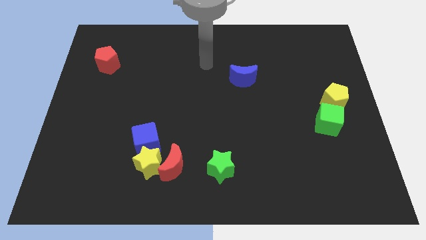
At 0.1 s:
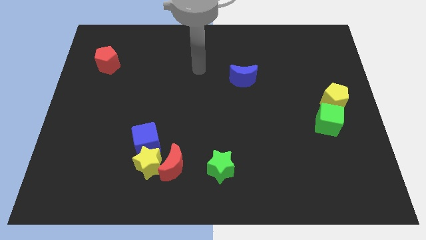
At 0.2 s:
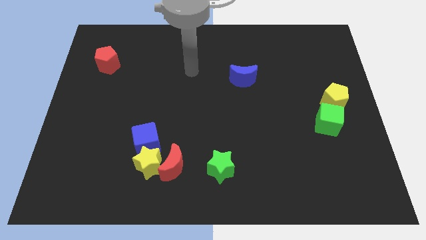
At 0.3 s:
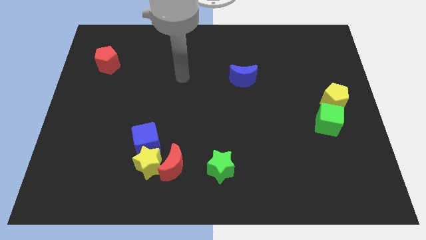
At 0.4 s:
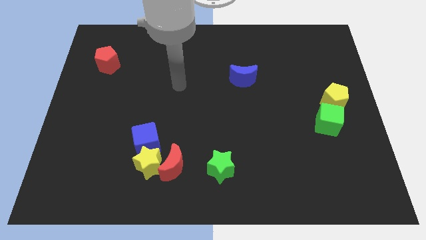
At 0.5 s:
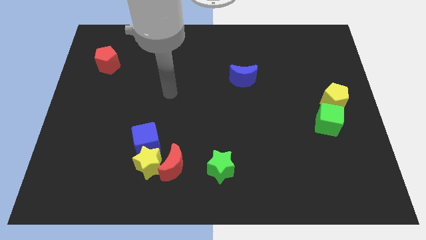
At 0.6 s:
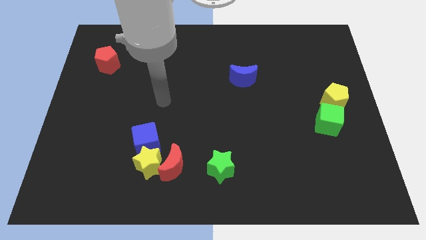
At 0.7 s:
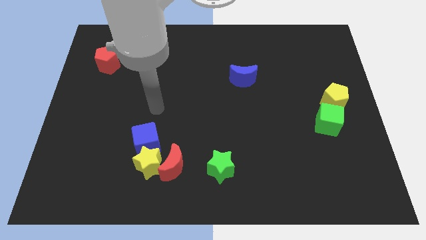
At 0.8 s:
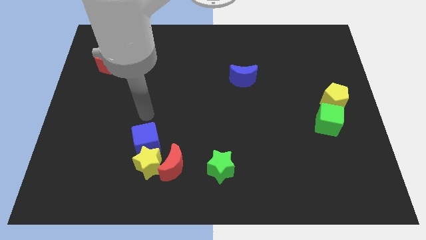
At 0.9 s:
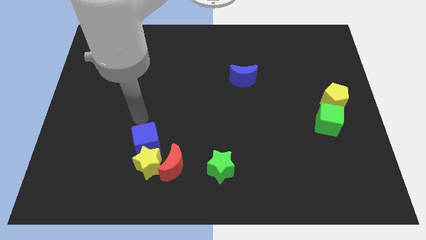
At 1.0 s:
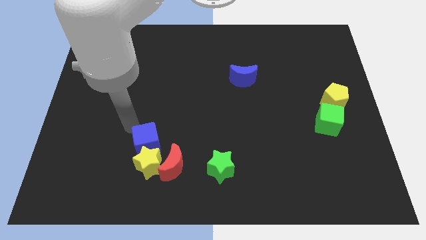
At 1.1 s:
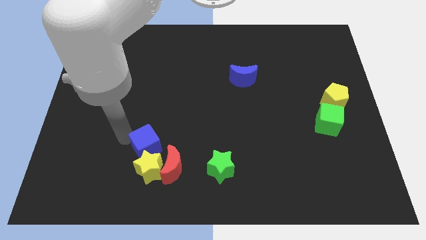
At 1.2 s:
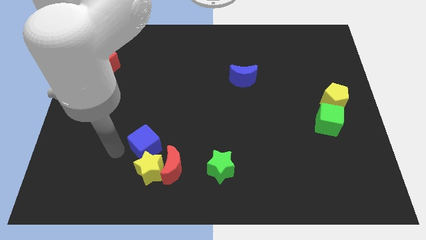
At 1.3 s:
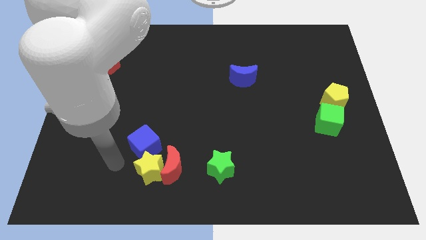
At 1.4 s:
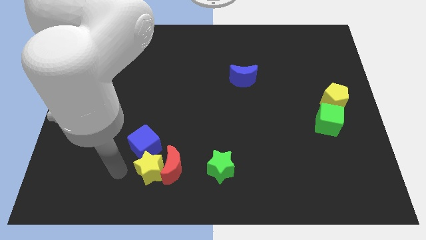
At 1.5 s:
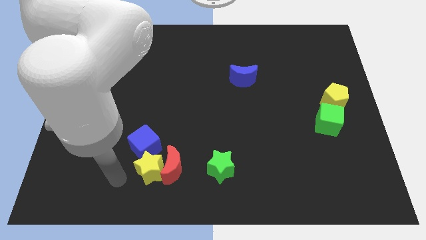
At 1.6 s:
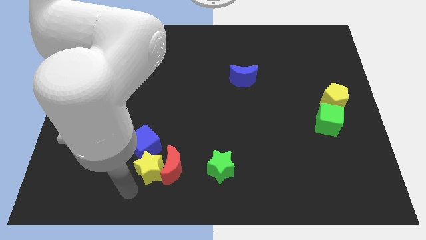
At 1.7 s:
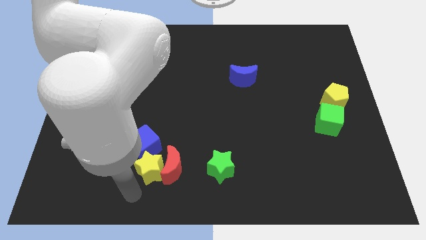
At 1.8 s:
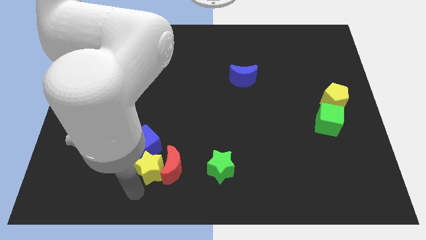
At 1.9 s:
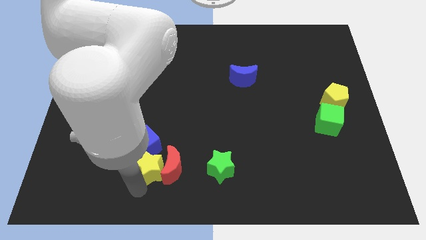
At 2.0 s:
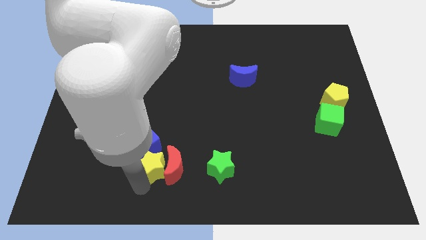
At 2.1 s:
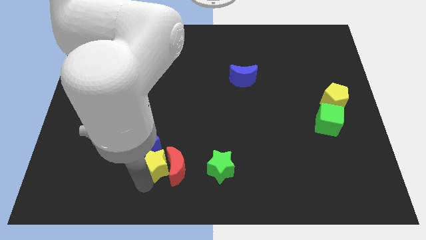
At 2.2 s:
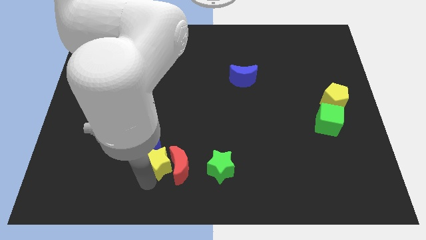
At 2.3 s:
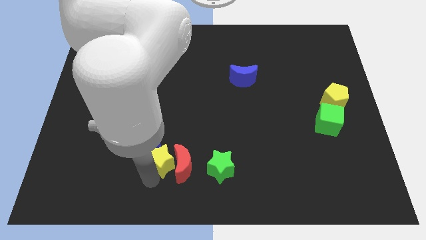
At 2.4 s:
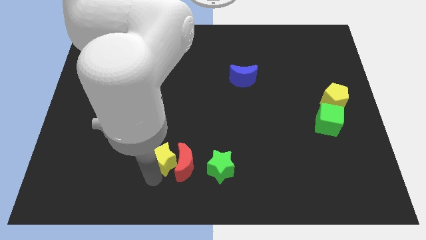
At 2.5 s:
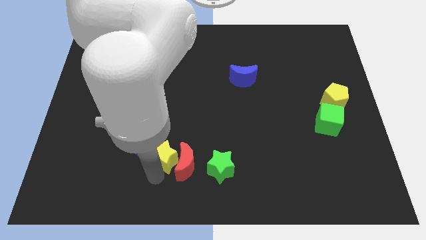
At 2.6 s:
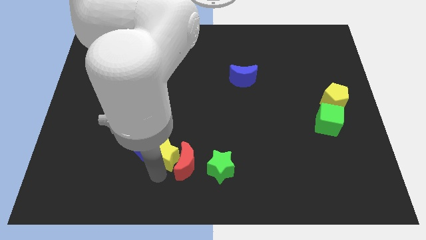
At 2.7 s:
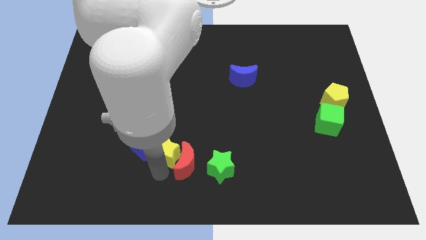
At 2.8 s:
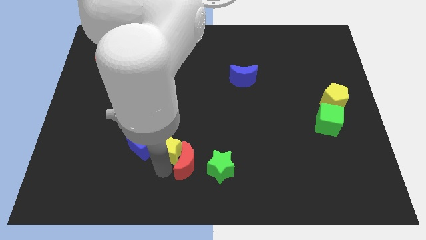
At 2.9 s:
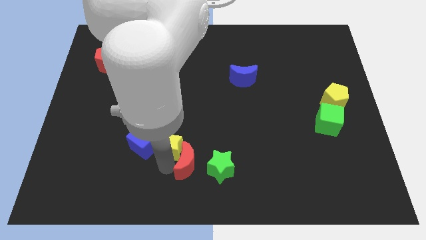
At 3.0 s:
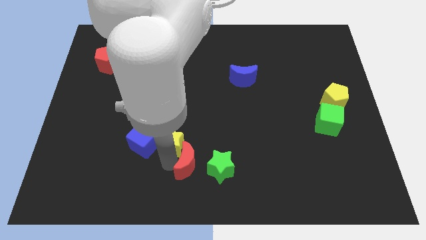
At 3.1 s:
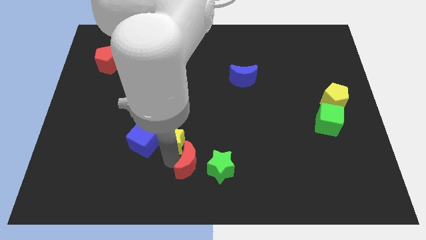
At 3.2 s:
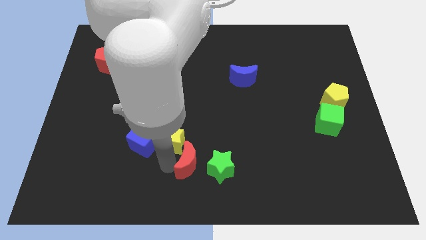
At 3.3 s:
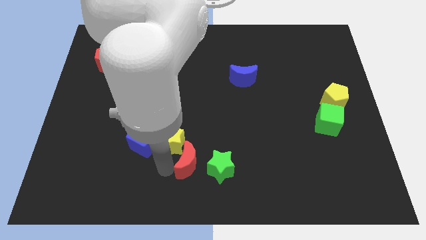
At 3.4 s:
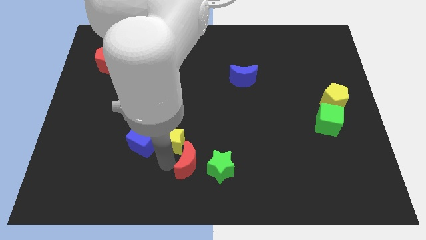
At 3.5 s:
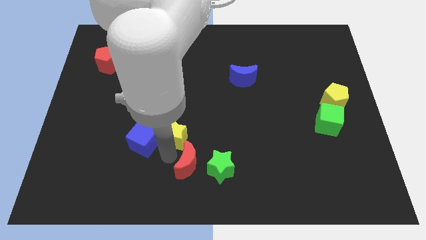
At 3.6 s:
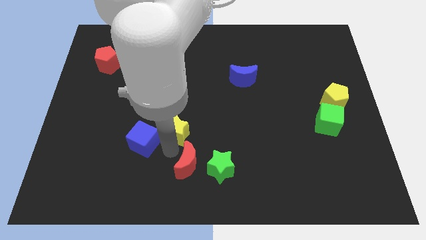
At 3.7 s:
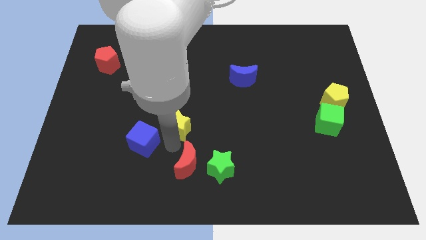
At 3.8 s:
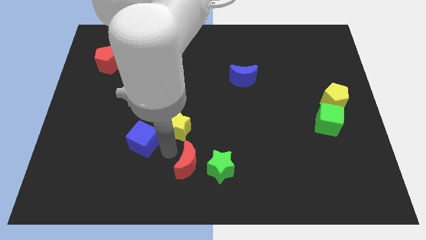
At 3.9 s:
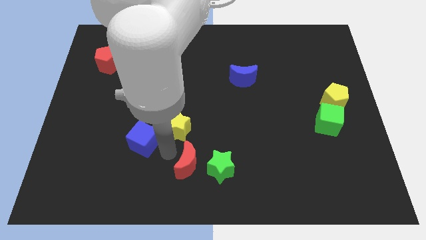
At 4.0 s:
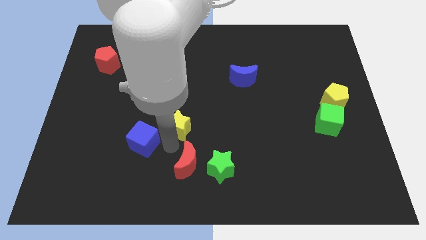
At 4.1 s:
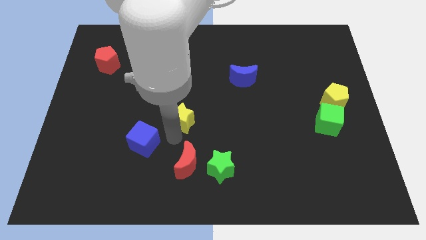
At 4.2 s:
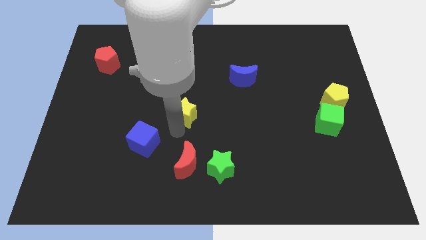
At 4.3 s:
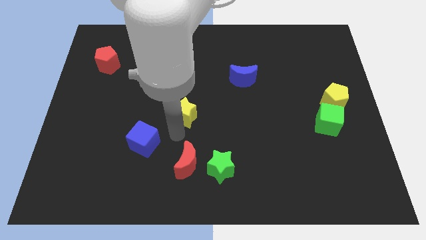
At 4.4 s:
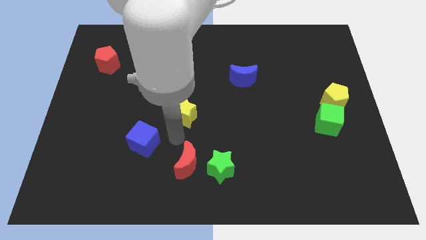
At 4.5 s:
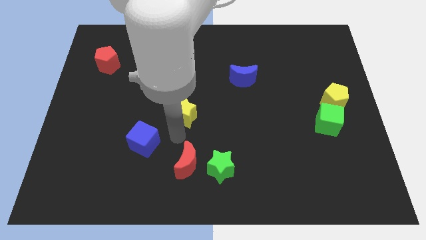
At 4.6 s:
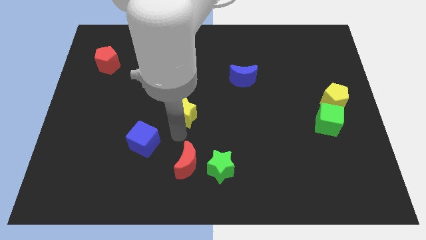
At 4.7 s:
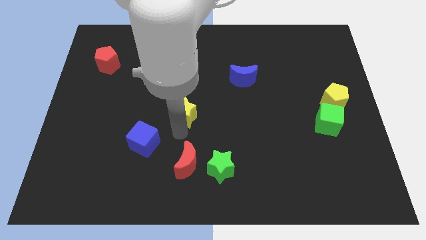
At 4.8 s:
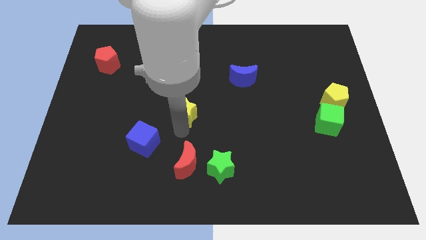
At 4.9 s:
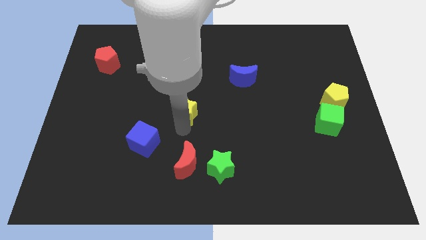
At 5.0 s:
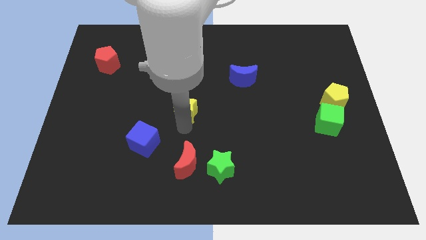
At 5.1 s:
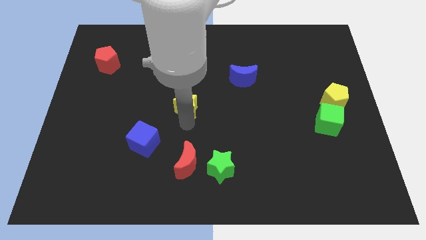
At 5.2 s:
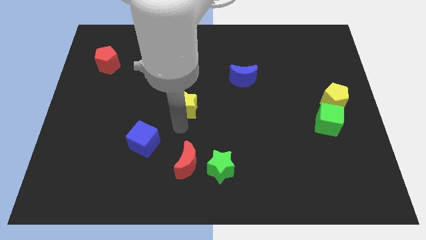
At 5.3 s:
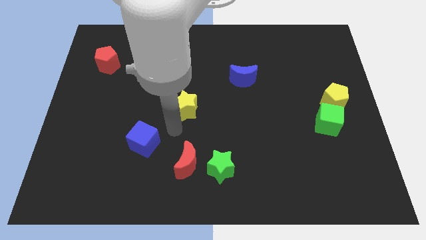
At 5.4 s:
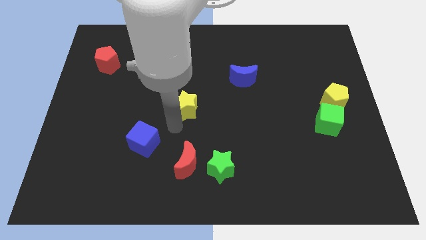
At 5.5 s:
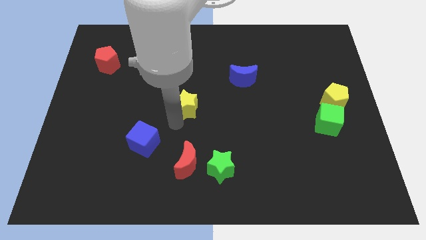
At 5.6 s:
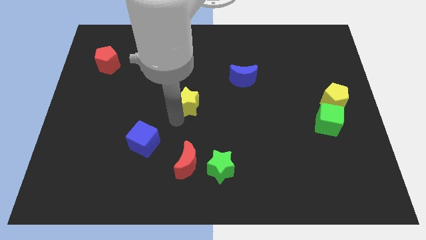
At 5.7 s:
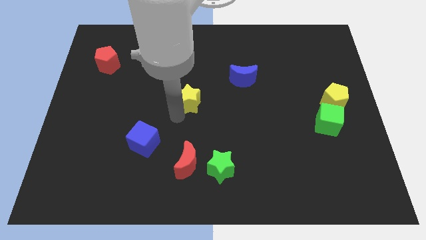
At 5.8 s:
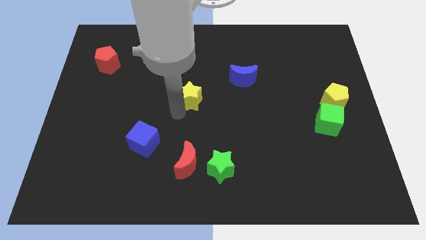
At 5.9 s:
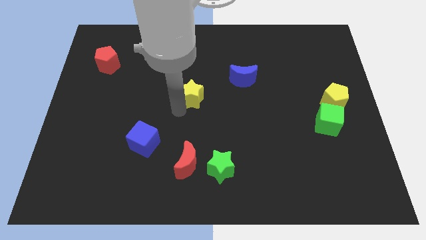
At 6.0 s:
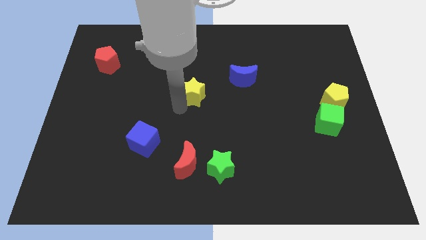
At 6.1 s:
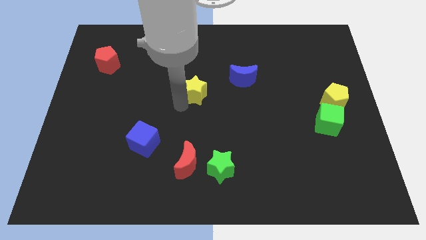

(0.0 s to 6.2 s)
put the yellow star just left of the blue moon
